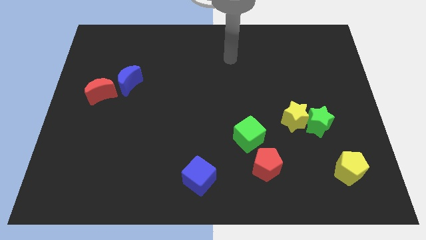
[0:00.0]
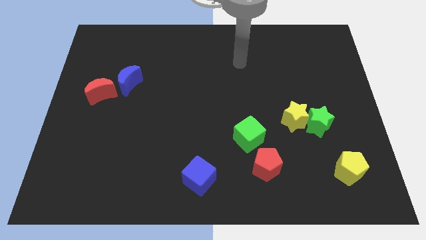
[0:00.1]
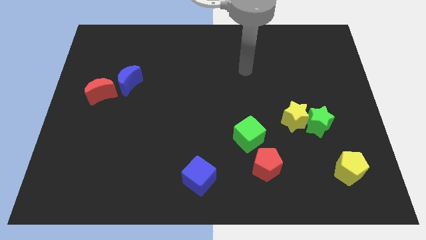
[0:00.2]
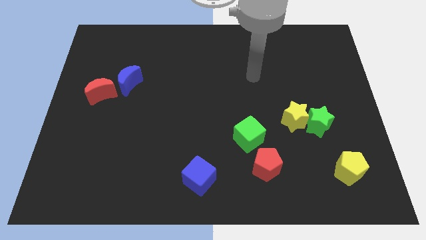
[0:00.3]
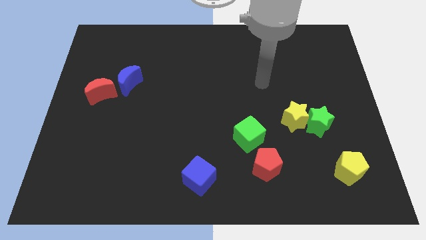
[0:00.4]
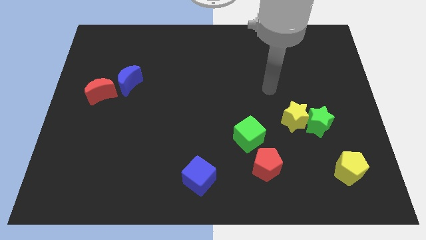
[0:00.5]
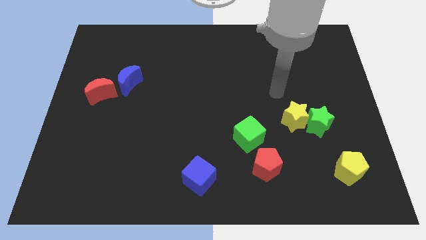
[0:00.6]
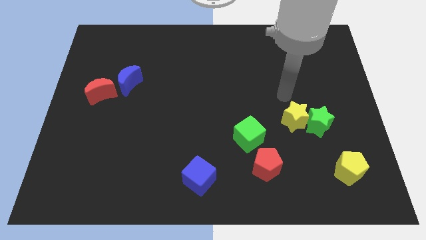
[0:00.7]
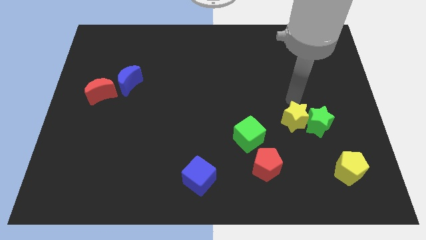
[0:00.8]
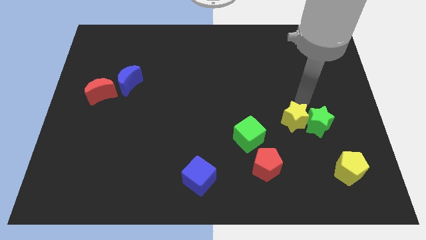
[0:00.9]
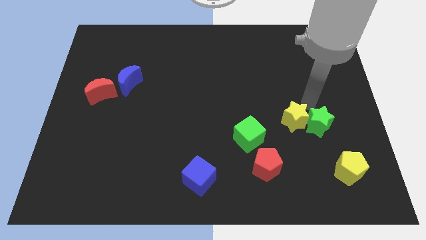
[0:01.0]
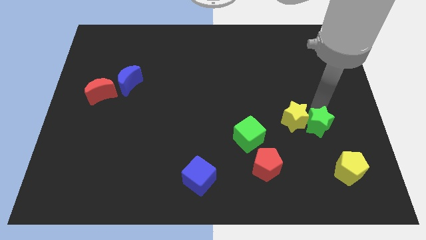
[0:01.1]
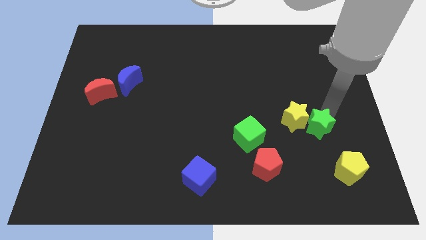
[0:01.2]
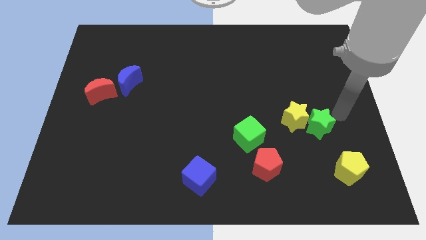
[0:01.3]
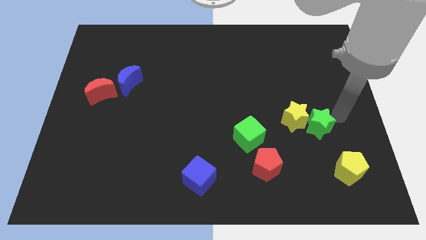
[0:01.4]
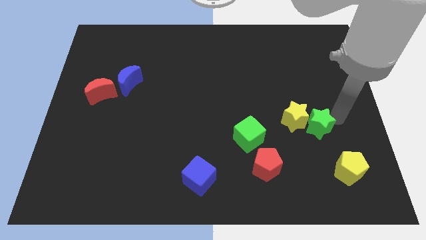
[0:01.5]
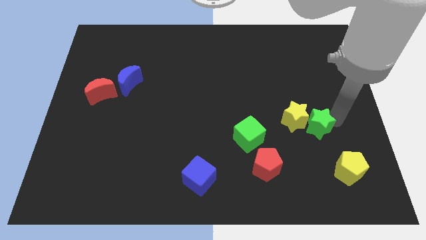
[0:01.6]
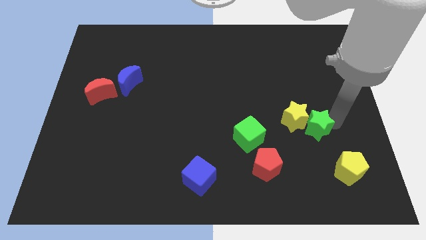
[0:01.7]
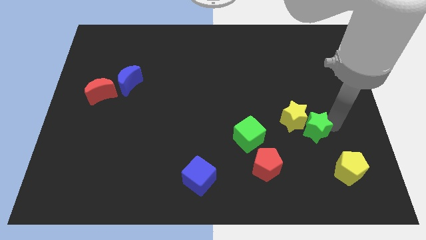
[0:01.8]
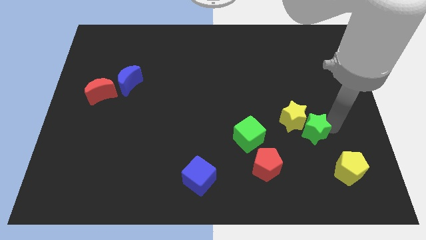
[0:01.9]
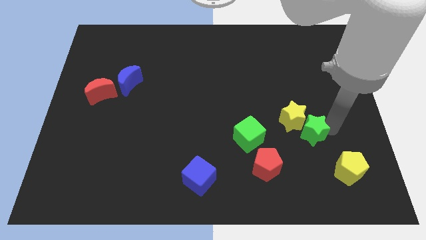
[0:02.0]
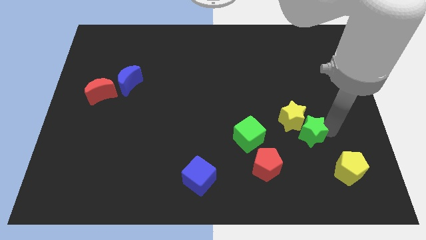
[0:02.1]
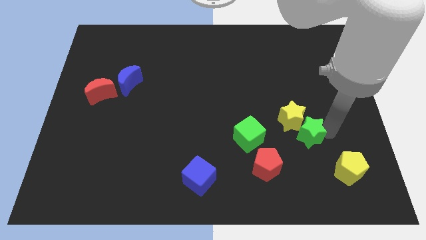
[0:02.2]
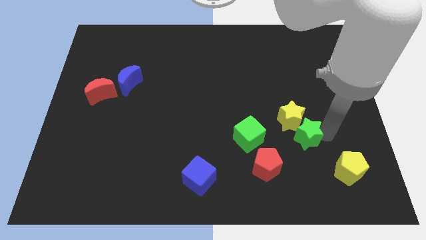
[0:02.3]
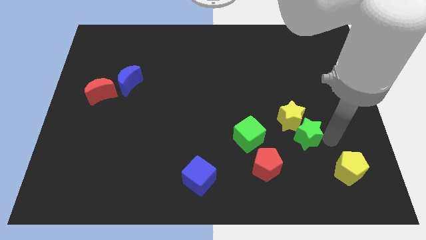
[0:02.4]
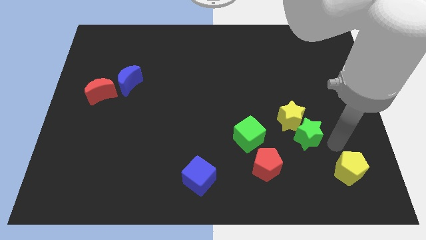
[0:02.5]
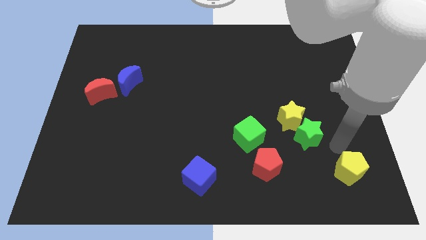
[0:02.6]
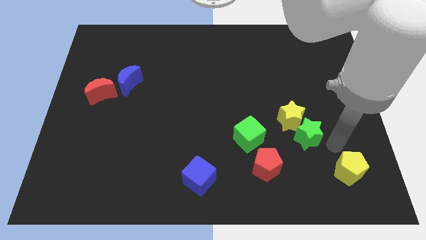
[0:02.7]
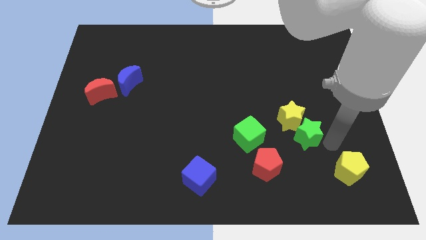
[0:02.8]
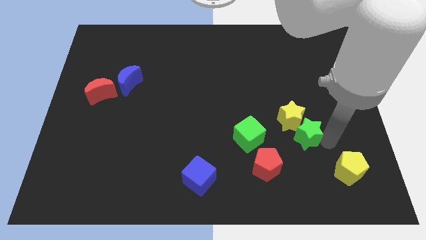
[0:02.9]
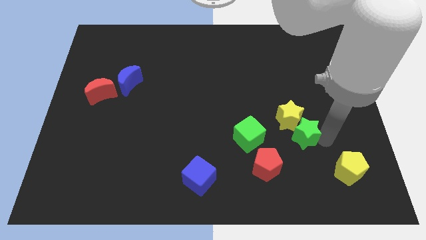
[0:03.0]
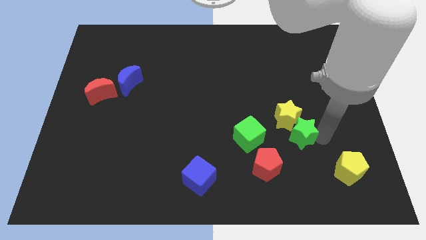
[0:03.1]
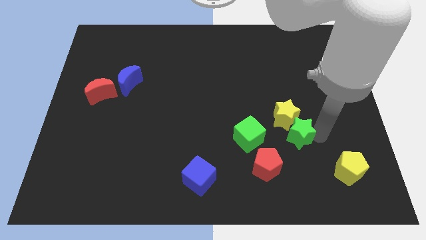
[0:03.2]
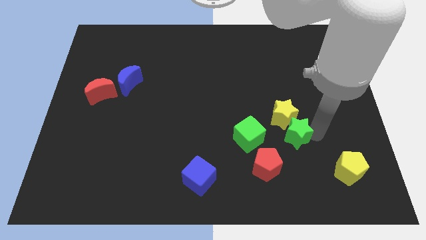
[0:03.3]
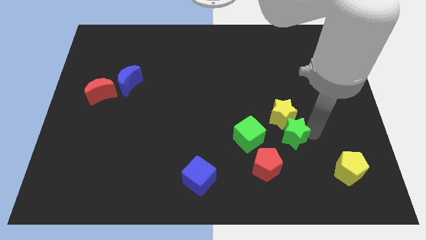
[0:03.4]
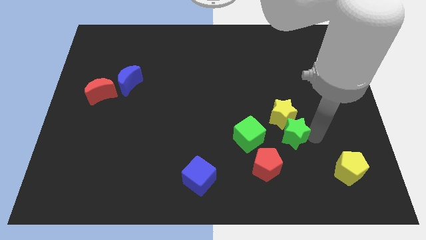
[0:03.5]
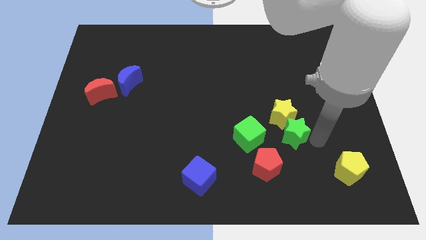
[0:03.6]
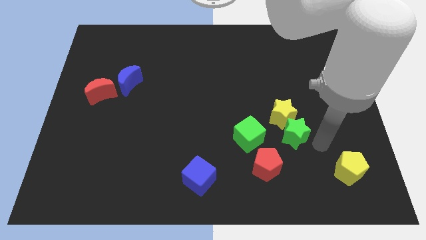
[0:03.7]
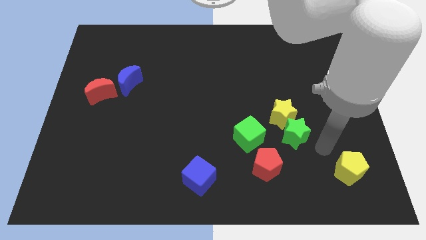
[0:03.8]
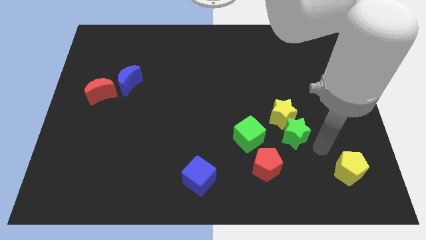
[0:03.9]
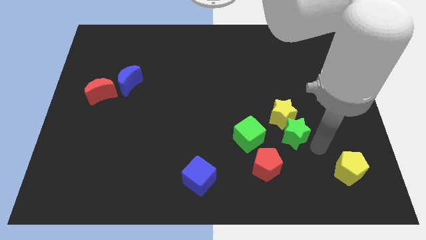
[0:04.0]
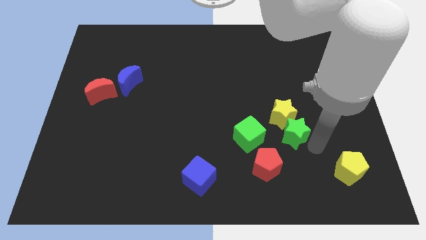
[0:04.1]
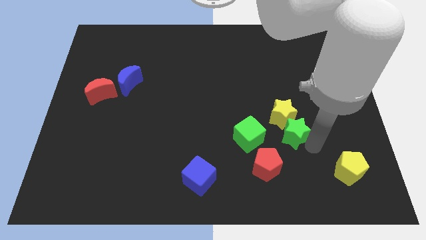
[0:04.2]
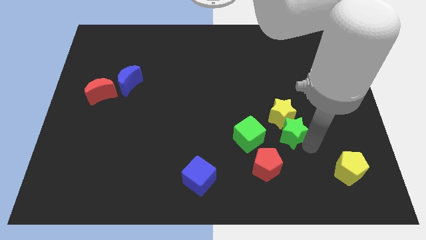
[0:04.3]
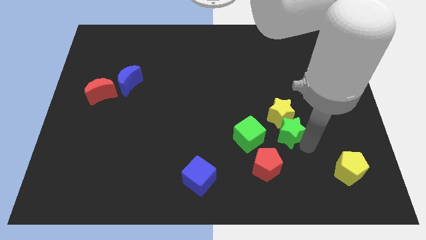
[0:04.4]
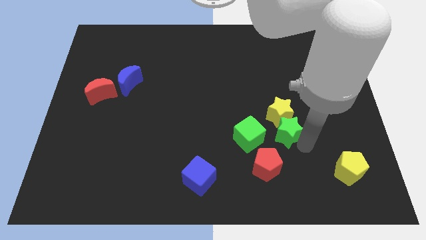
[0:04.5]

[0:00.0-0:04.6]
slightly slide the green star left

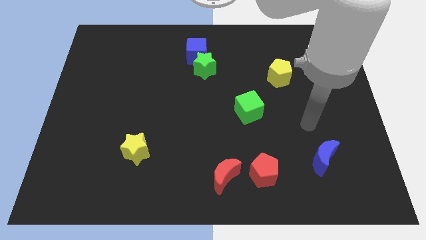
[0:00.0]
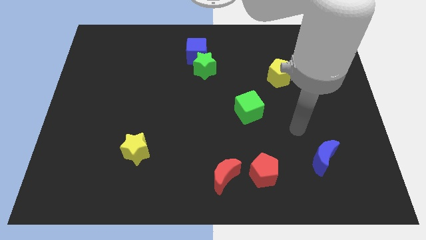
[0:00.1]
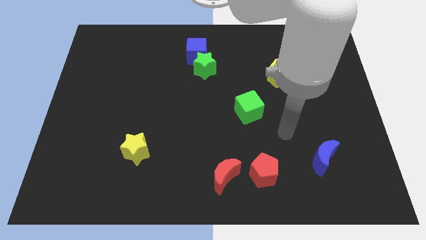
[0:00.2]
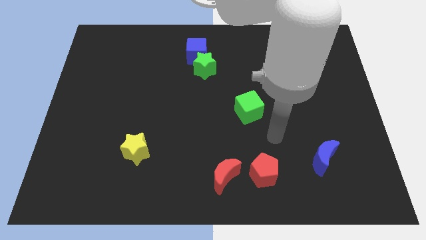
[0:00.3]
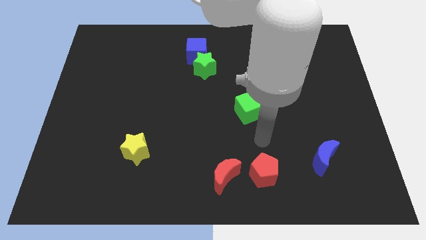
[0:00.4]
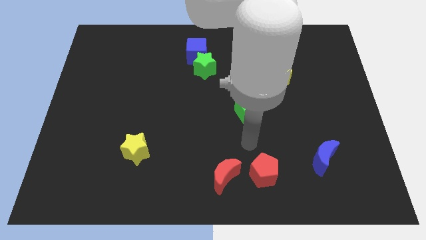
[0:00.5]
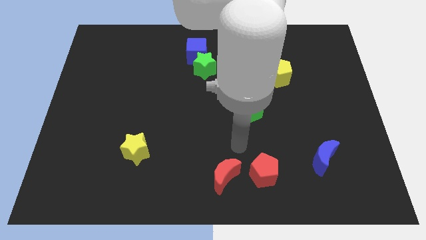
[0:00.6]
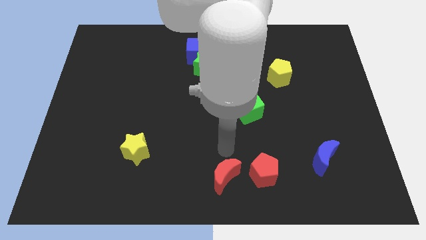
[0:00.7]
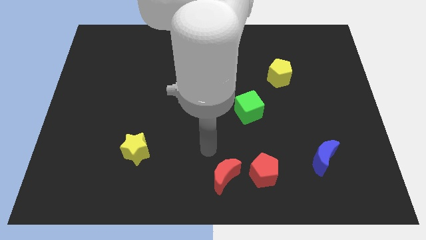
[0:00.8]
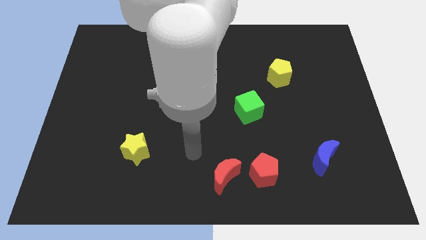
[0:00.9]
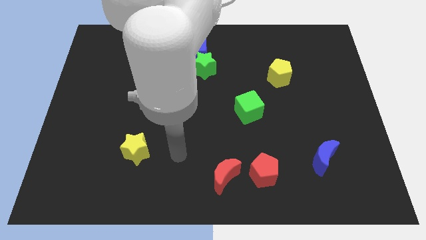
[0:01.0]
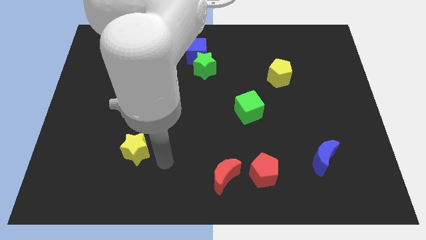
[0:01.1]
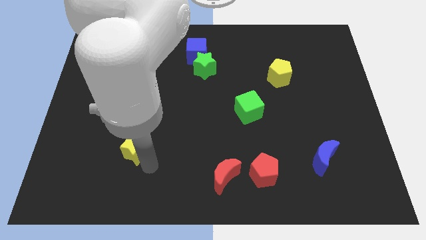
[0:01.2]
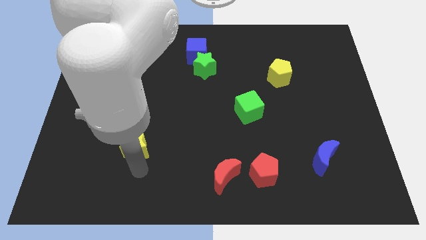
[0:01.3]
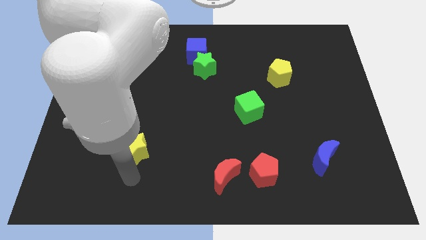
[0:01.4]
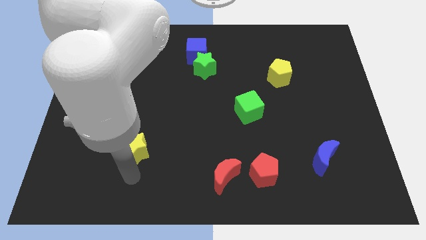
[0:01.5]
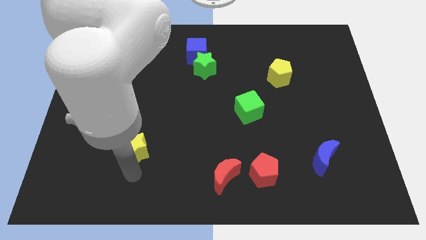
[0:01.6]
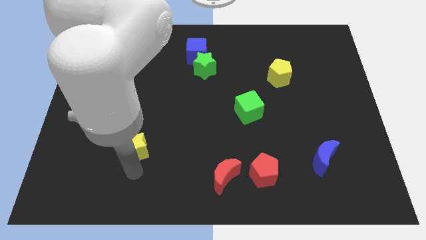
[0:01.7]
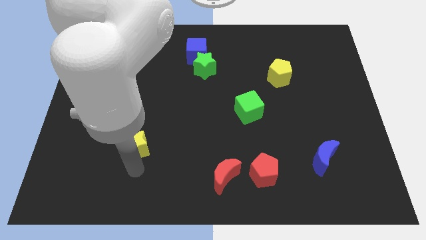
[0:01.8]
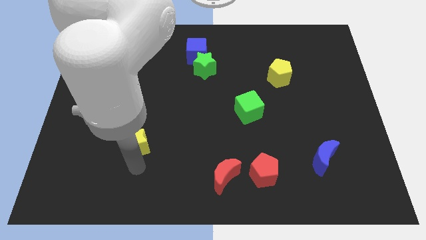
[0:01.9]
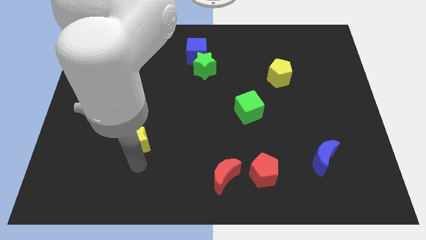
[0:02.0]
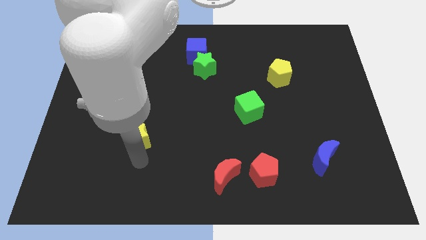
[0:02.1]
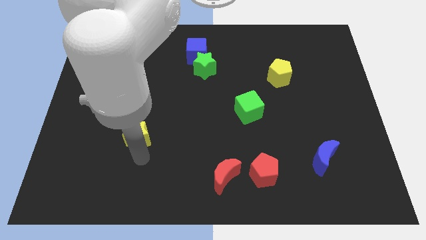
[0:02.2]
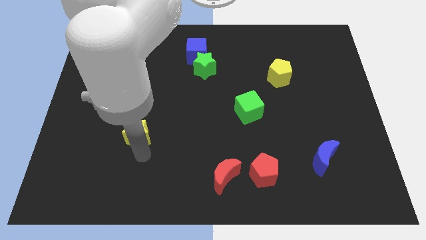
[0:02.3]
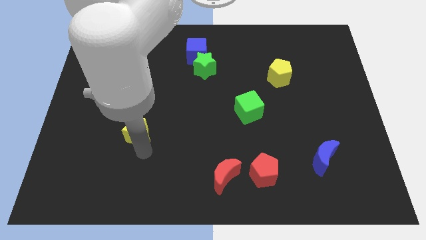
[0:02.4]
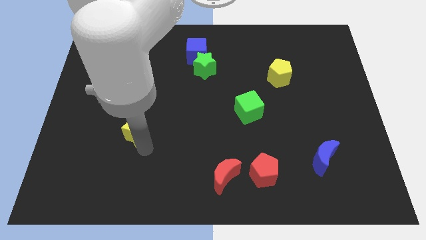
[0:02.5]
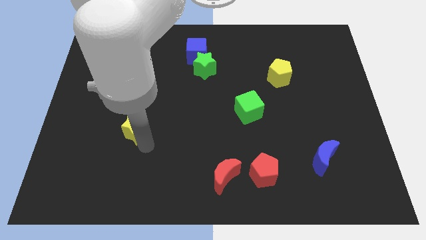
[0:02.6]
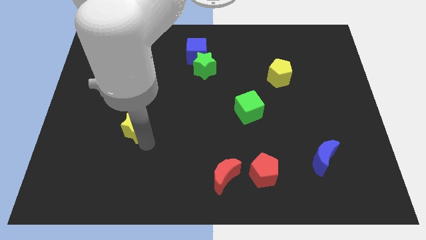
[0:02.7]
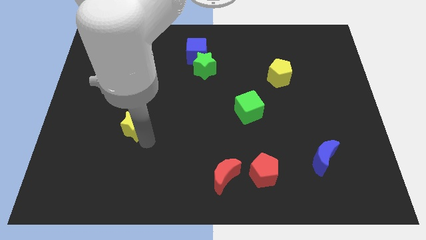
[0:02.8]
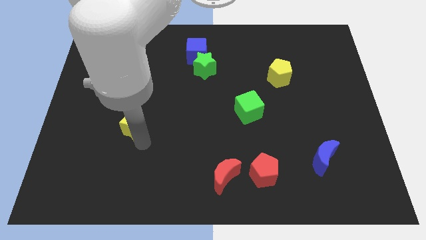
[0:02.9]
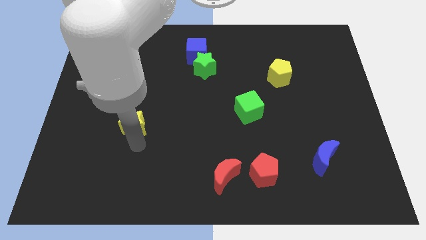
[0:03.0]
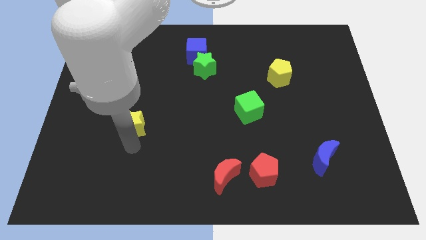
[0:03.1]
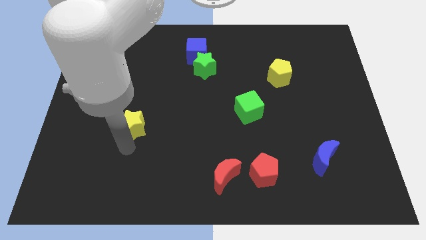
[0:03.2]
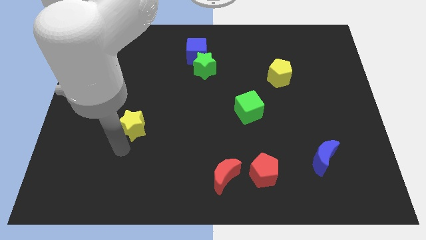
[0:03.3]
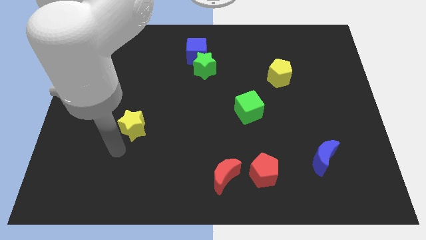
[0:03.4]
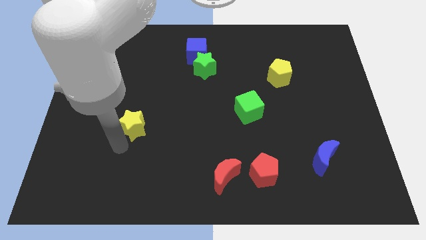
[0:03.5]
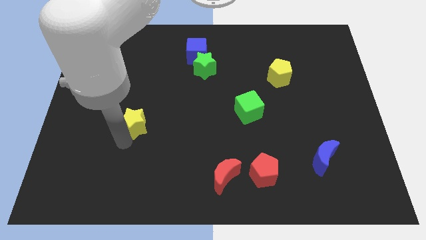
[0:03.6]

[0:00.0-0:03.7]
slightly push the yellow star up
